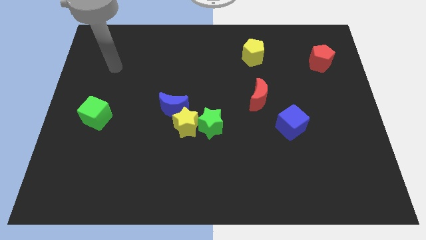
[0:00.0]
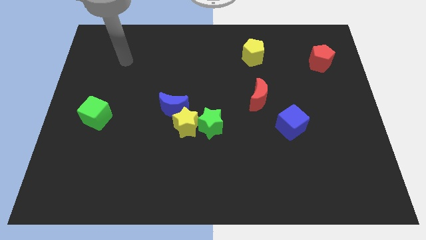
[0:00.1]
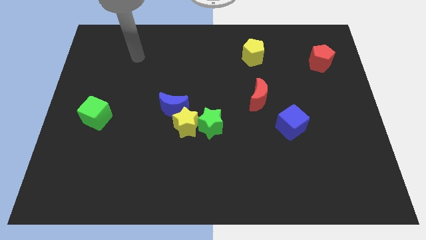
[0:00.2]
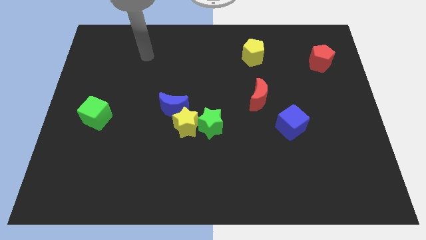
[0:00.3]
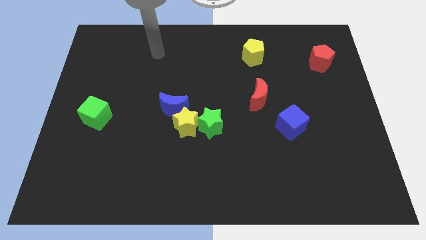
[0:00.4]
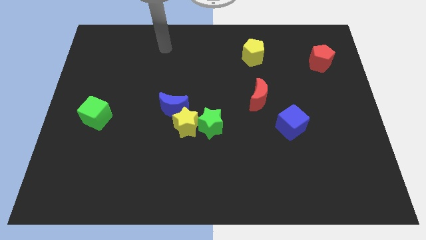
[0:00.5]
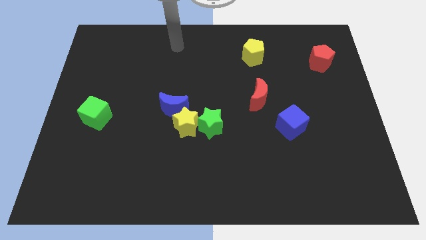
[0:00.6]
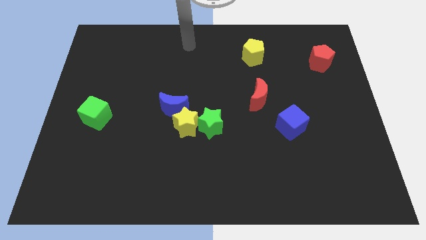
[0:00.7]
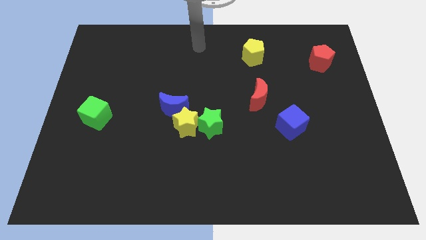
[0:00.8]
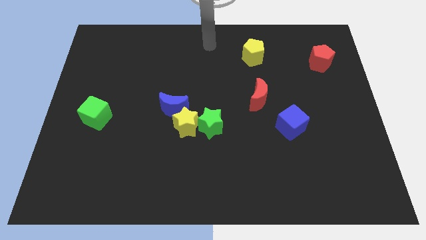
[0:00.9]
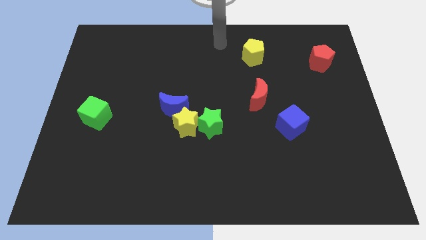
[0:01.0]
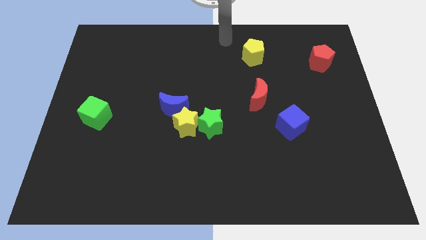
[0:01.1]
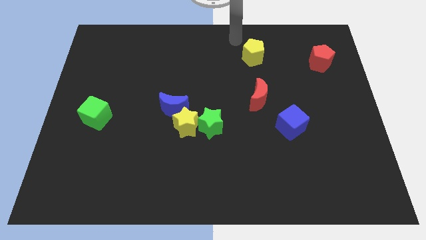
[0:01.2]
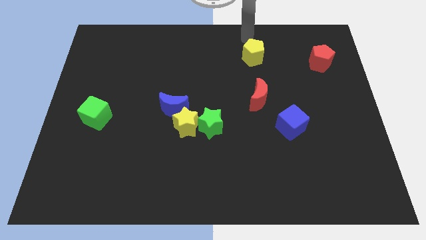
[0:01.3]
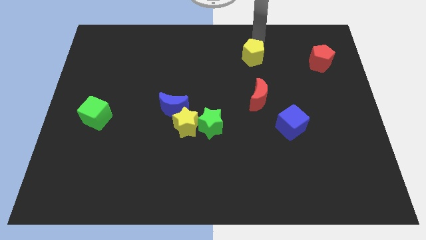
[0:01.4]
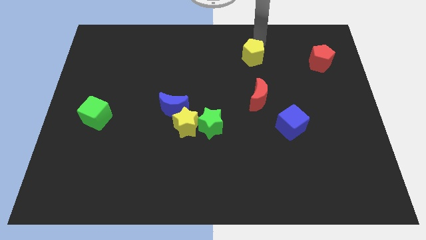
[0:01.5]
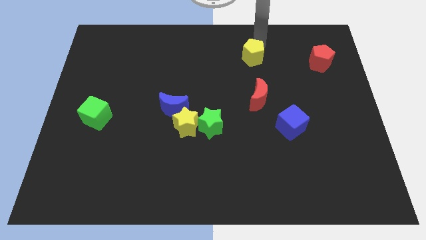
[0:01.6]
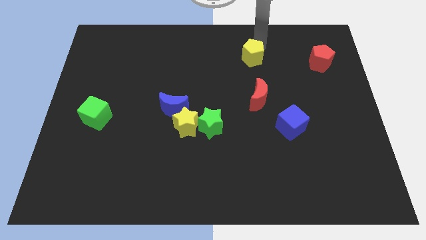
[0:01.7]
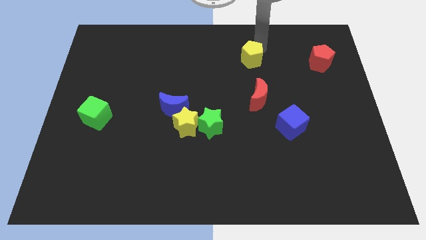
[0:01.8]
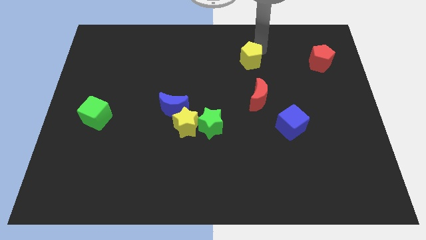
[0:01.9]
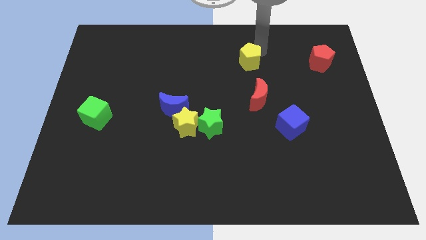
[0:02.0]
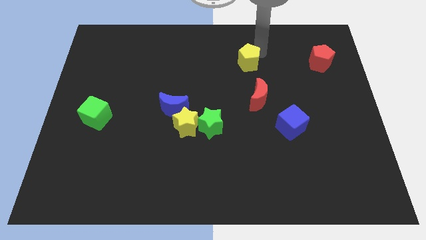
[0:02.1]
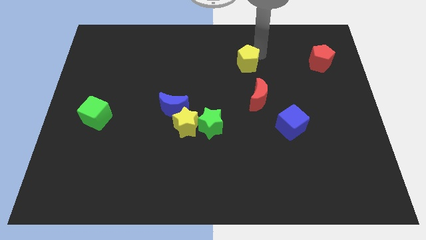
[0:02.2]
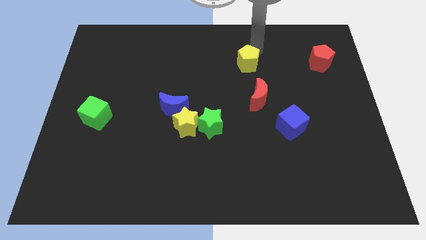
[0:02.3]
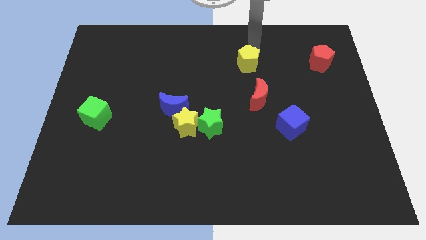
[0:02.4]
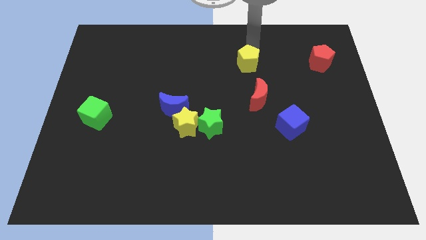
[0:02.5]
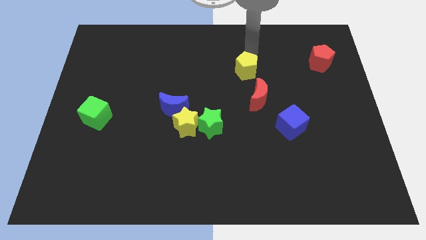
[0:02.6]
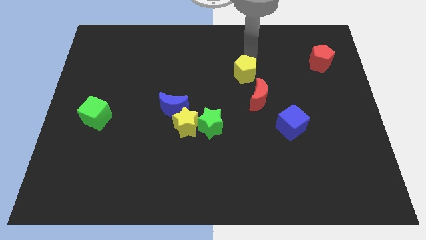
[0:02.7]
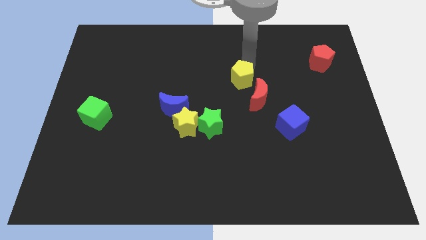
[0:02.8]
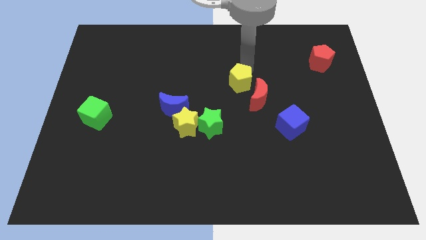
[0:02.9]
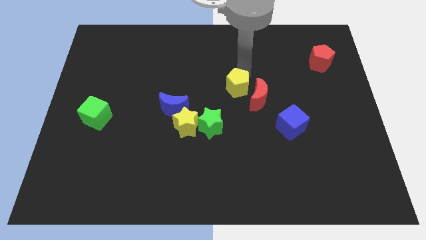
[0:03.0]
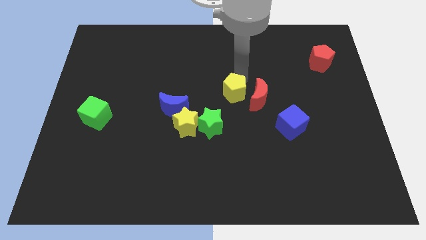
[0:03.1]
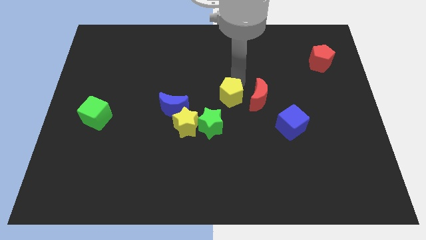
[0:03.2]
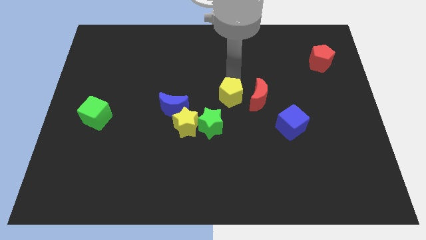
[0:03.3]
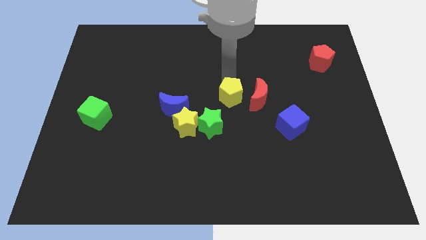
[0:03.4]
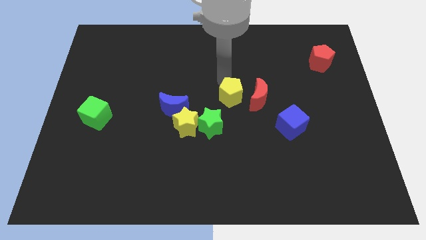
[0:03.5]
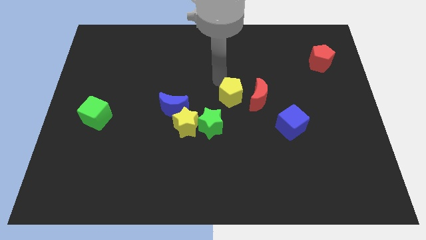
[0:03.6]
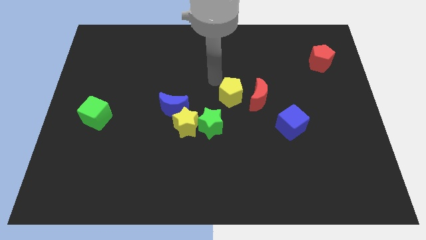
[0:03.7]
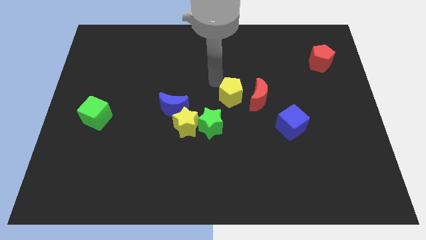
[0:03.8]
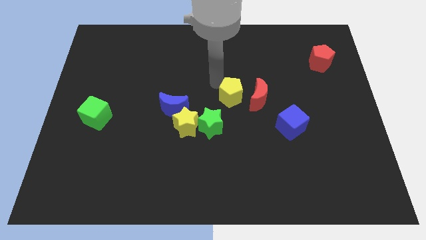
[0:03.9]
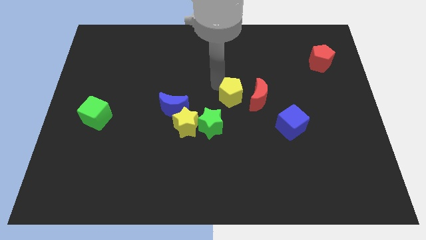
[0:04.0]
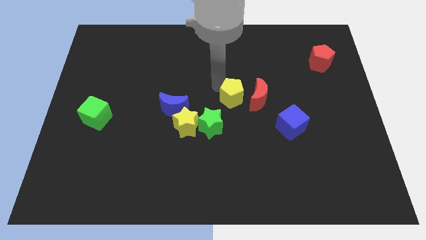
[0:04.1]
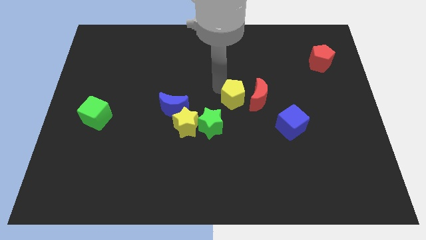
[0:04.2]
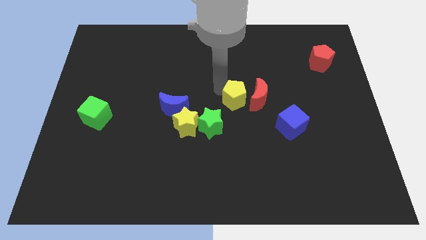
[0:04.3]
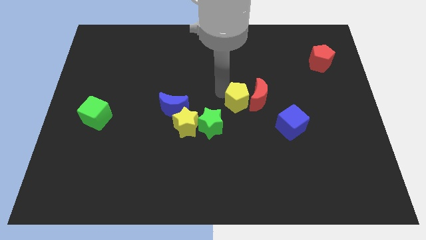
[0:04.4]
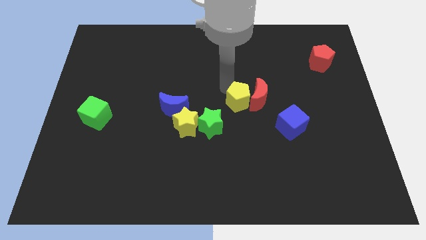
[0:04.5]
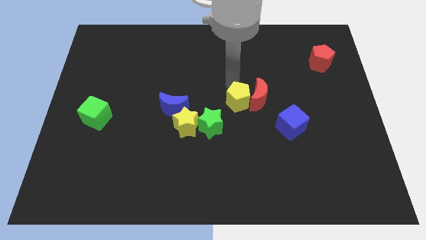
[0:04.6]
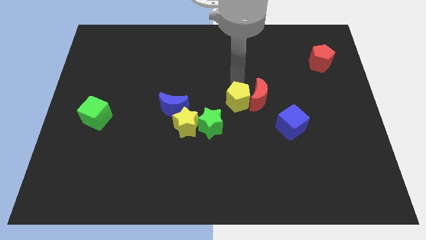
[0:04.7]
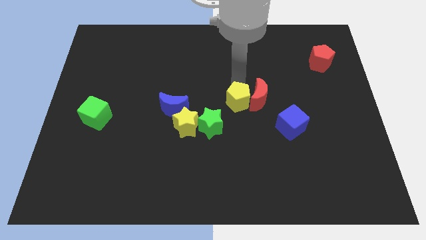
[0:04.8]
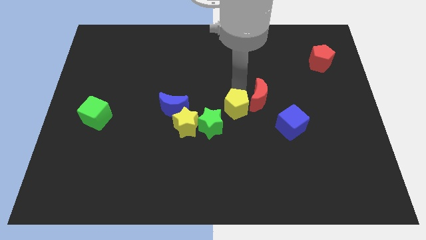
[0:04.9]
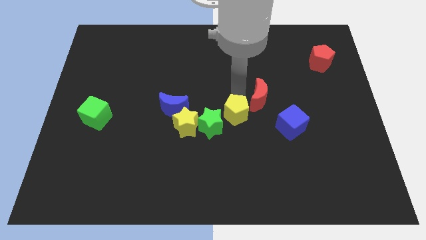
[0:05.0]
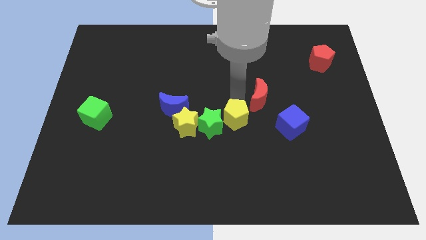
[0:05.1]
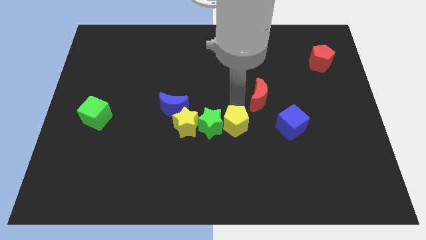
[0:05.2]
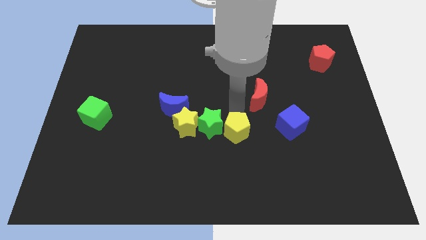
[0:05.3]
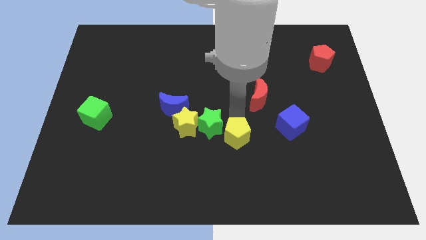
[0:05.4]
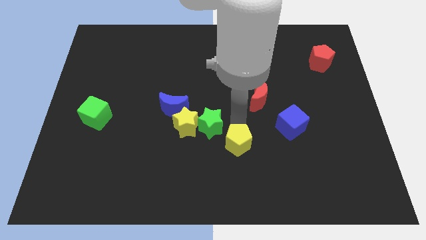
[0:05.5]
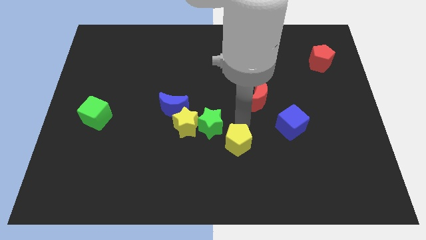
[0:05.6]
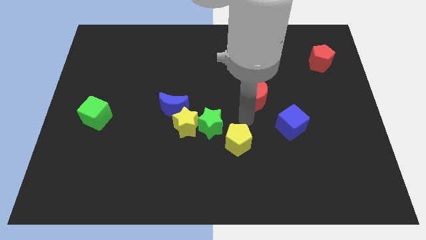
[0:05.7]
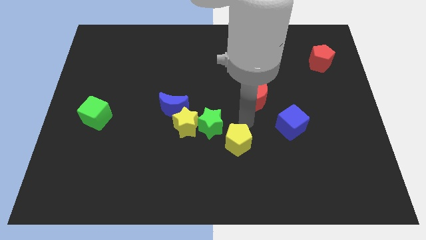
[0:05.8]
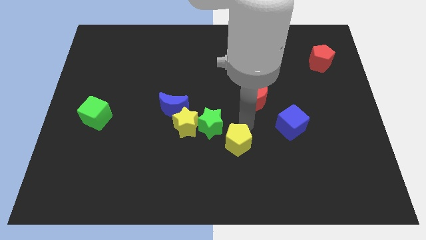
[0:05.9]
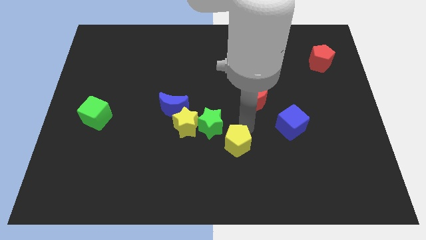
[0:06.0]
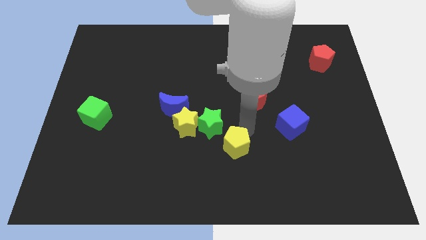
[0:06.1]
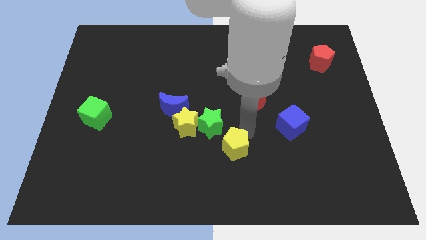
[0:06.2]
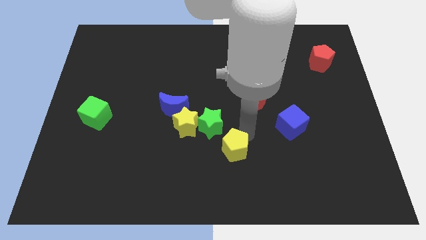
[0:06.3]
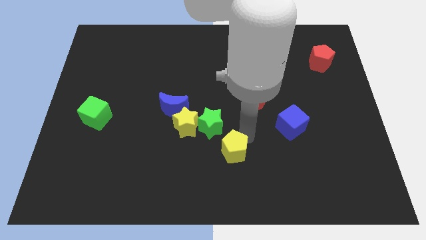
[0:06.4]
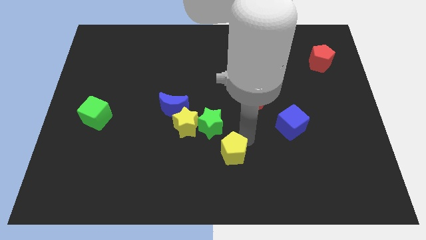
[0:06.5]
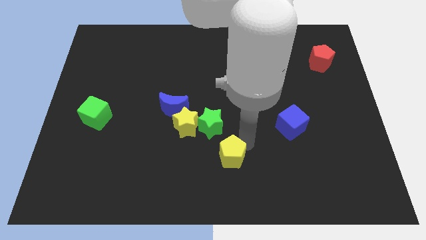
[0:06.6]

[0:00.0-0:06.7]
move the yellow pentagon to the bottom

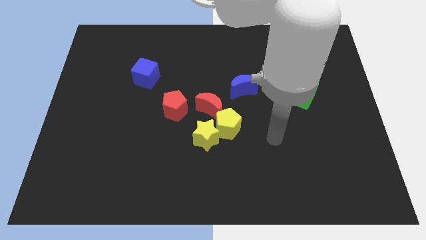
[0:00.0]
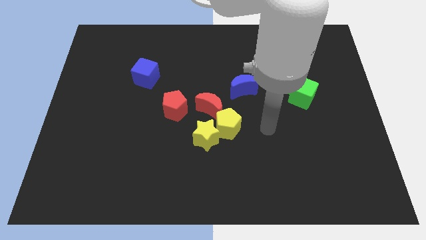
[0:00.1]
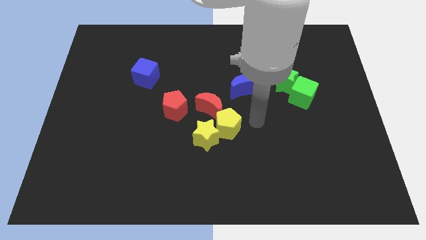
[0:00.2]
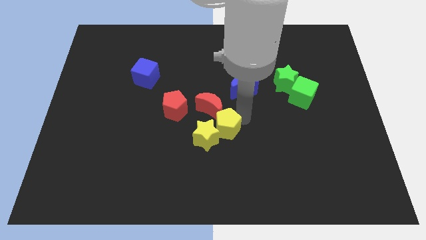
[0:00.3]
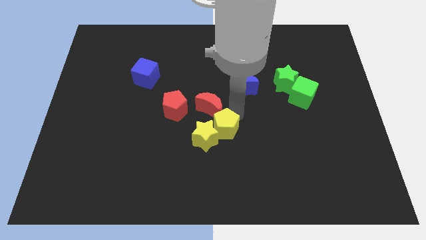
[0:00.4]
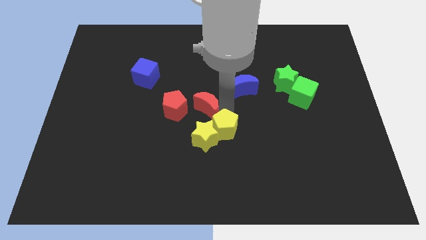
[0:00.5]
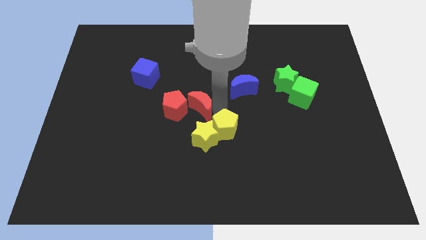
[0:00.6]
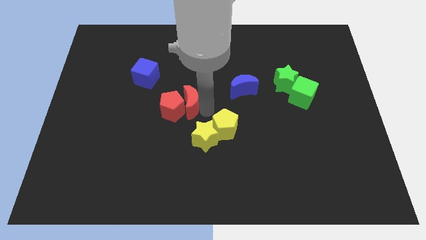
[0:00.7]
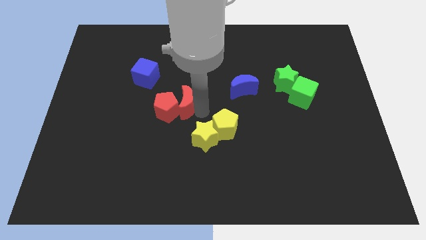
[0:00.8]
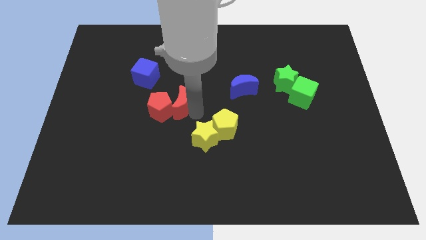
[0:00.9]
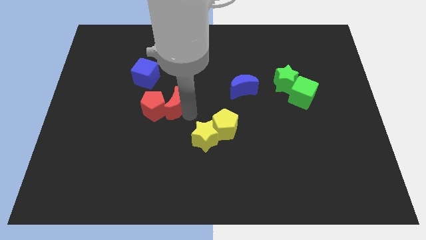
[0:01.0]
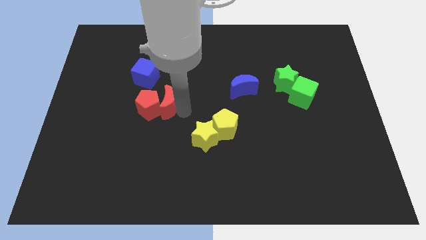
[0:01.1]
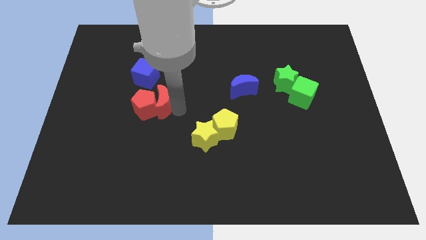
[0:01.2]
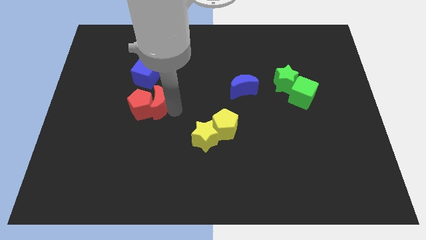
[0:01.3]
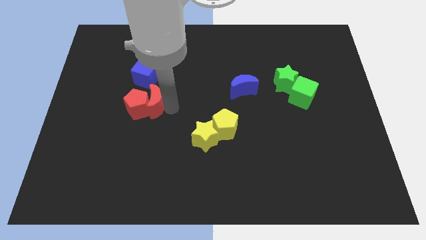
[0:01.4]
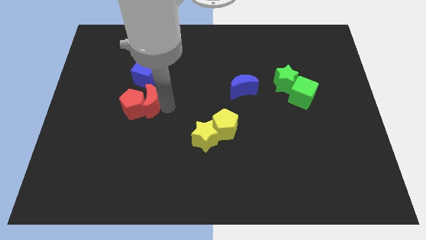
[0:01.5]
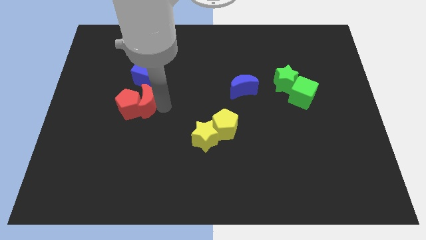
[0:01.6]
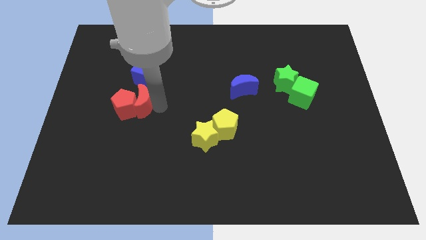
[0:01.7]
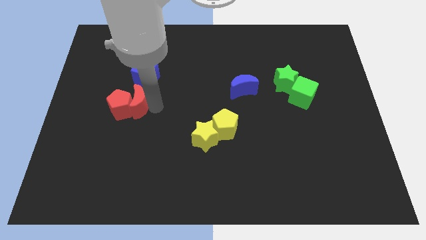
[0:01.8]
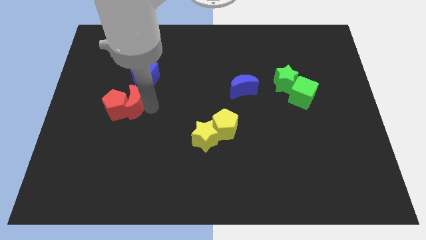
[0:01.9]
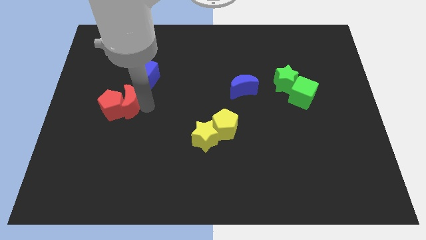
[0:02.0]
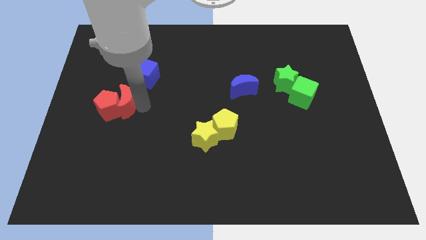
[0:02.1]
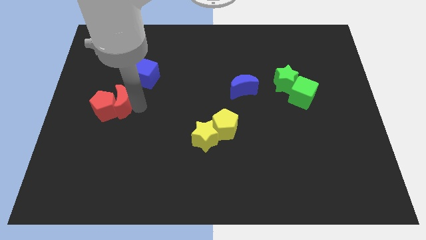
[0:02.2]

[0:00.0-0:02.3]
put the red pentagon to the center left
